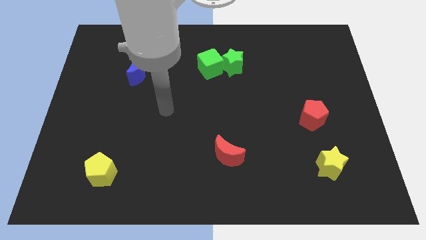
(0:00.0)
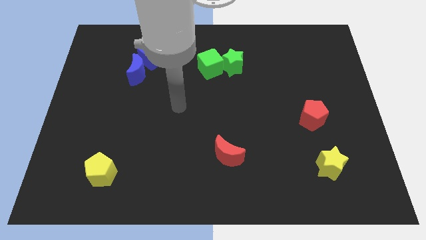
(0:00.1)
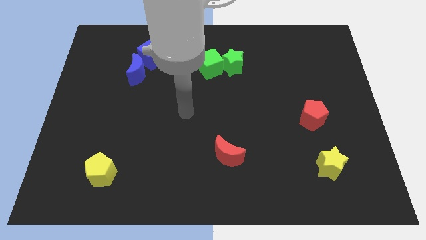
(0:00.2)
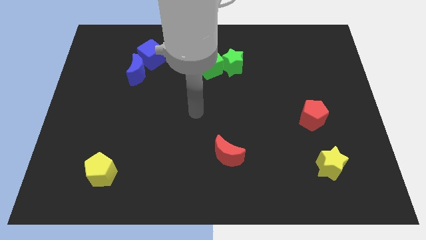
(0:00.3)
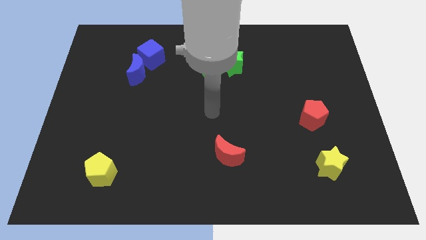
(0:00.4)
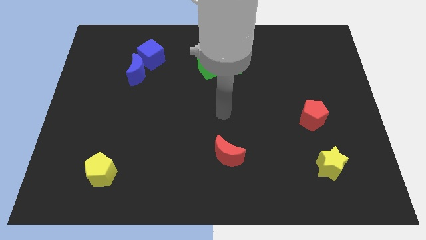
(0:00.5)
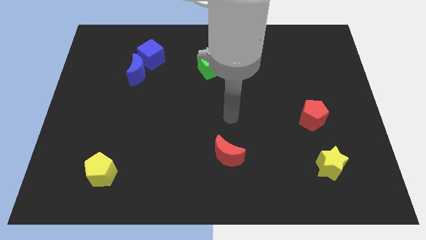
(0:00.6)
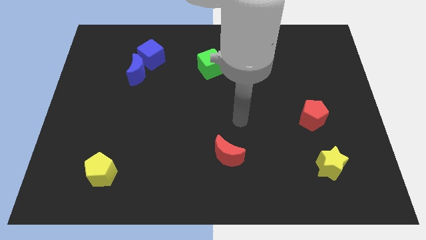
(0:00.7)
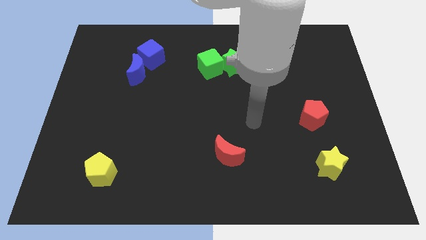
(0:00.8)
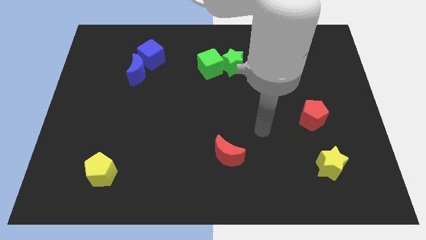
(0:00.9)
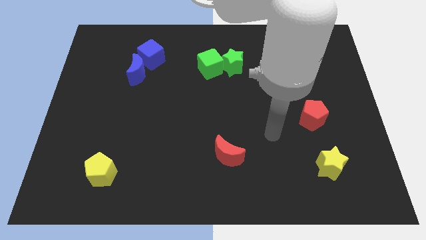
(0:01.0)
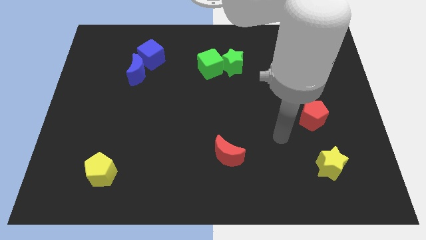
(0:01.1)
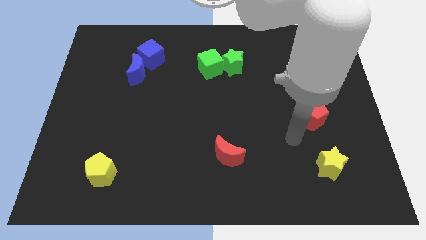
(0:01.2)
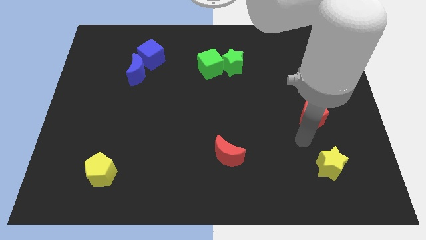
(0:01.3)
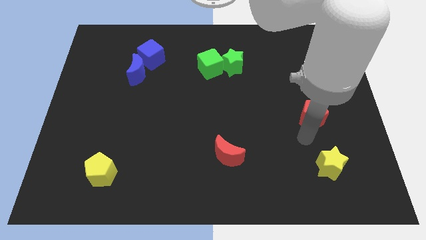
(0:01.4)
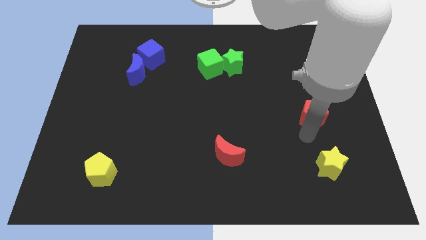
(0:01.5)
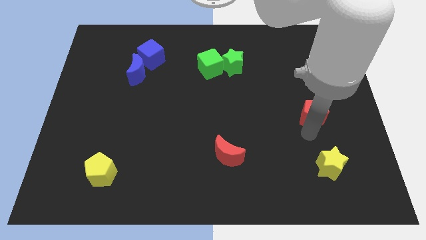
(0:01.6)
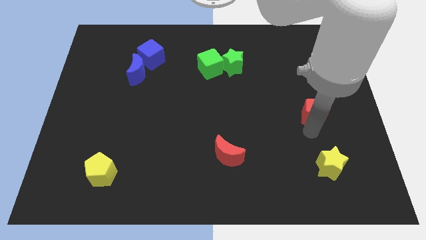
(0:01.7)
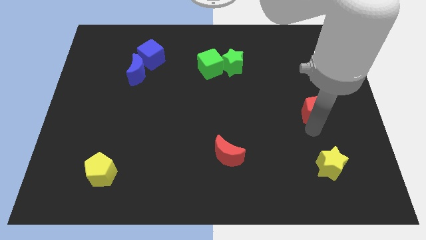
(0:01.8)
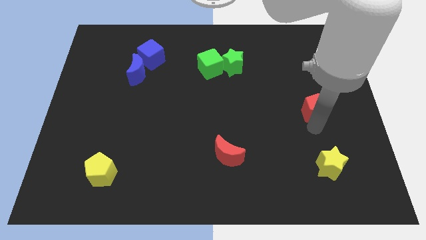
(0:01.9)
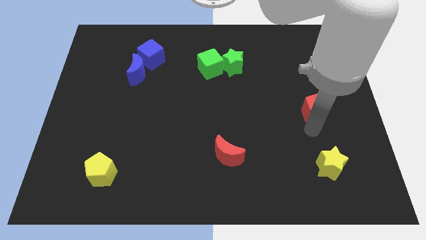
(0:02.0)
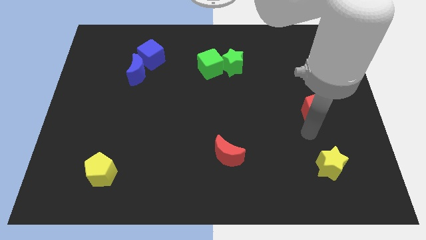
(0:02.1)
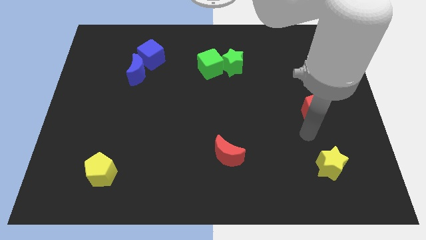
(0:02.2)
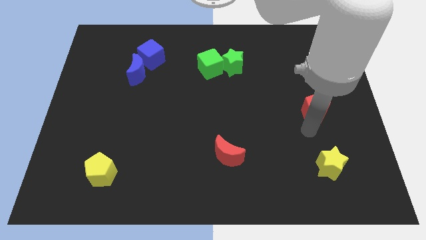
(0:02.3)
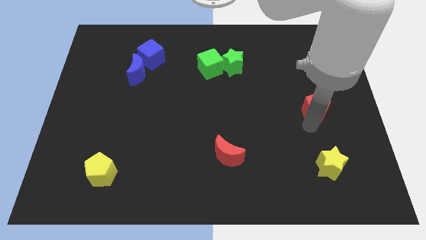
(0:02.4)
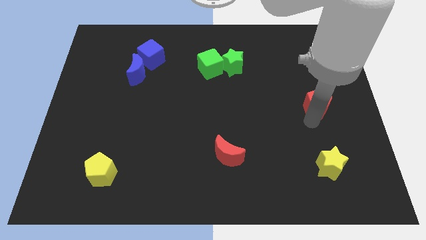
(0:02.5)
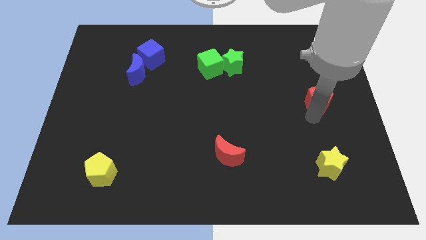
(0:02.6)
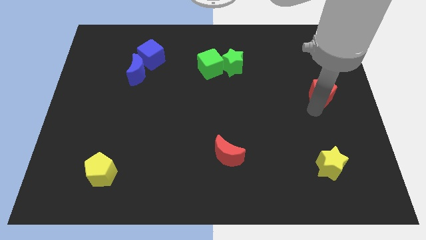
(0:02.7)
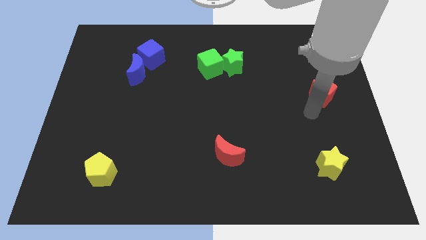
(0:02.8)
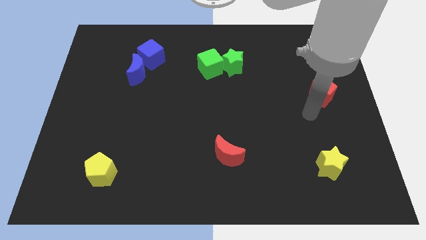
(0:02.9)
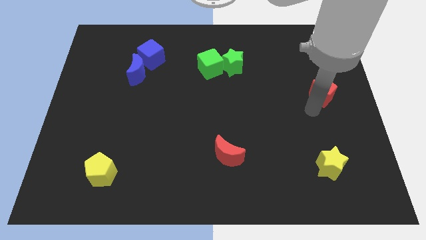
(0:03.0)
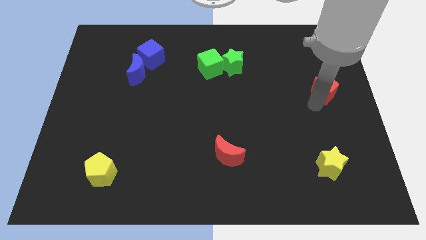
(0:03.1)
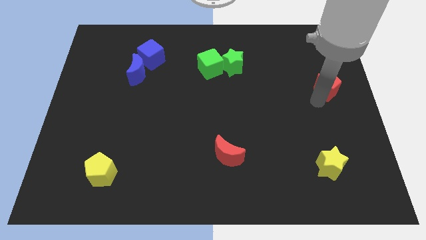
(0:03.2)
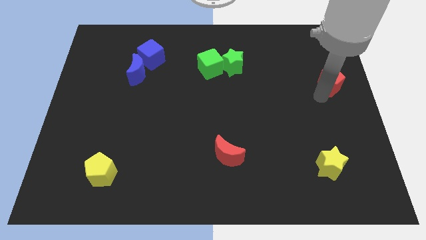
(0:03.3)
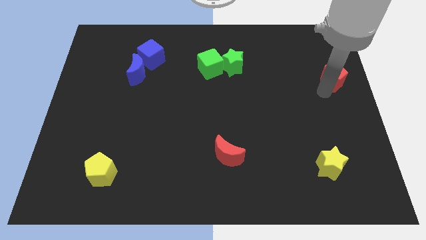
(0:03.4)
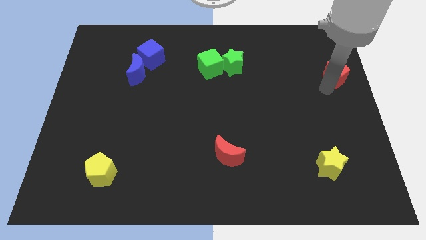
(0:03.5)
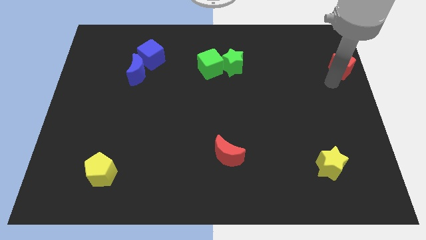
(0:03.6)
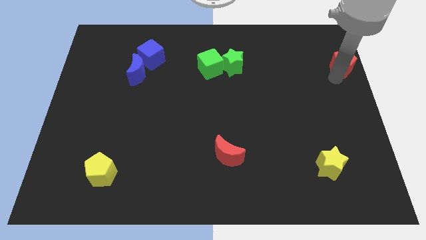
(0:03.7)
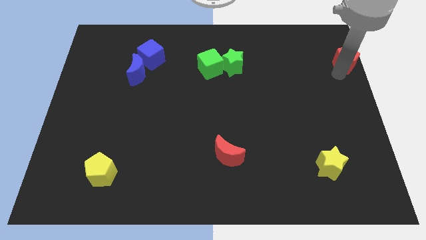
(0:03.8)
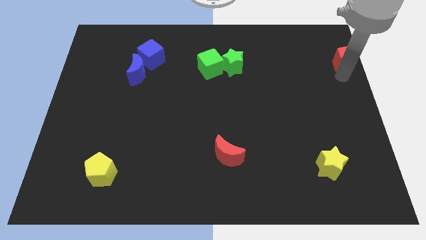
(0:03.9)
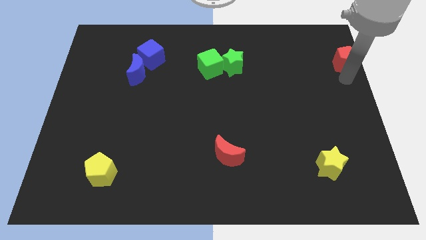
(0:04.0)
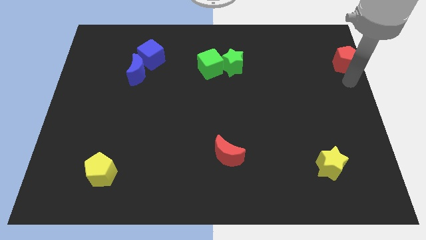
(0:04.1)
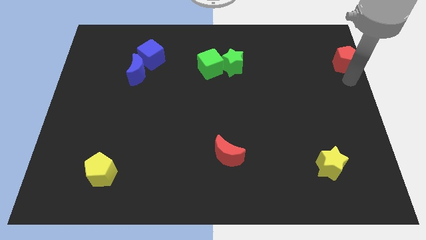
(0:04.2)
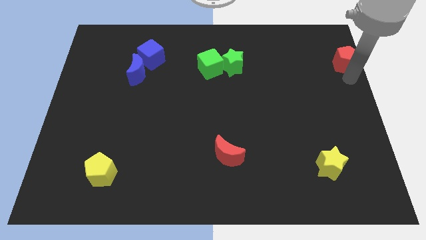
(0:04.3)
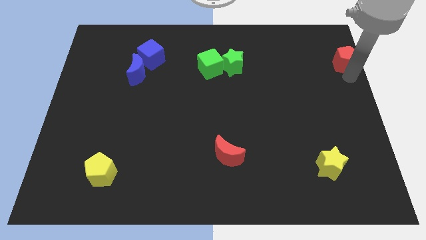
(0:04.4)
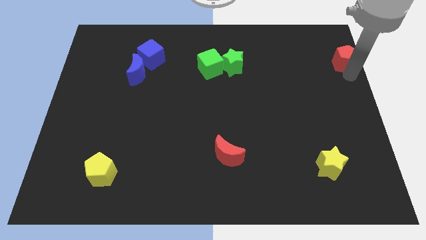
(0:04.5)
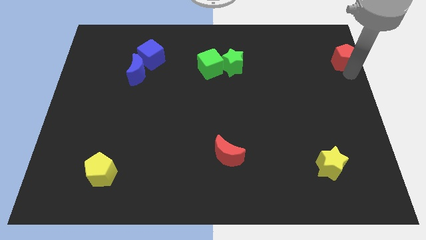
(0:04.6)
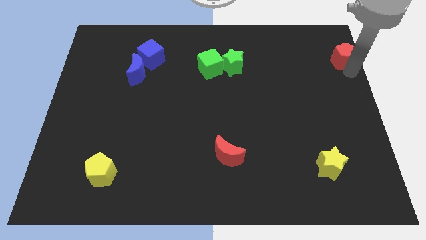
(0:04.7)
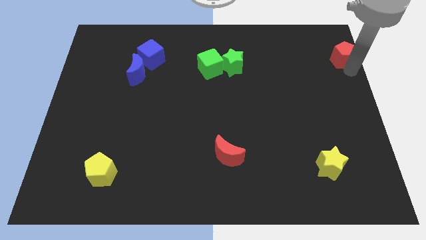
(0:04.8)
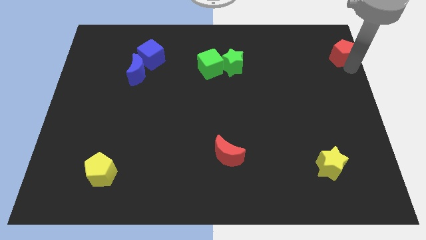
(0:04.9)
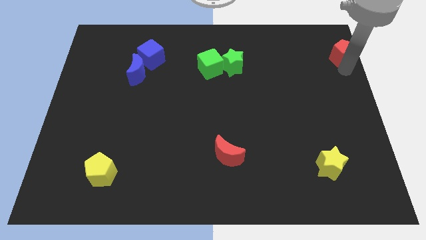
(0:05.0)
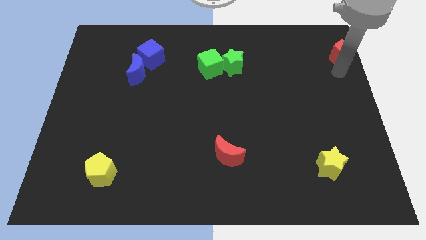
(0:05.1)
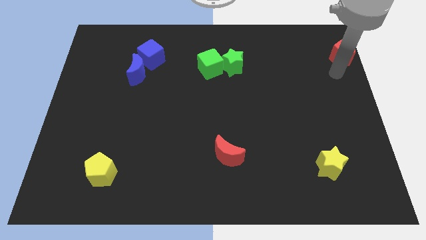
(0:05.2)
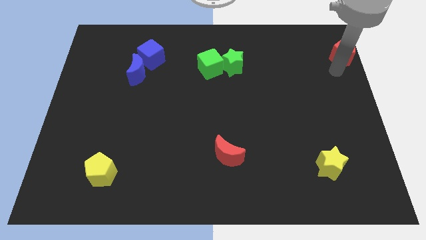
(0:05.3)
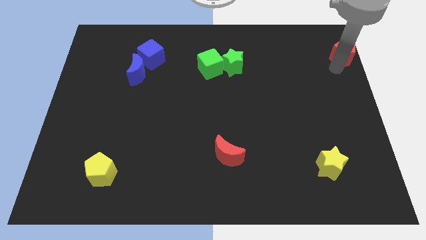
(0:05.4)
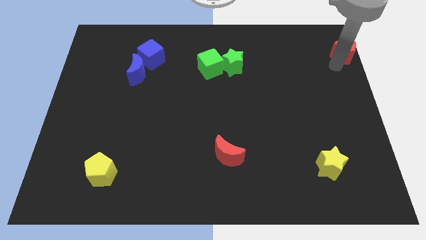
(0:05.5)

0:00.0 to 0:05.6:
put the red pentagon to the top right

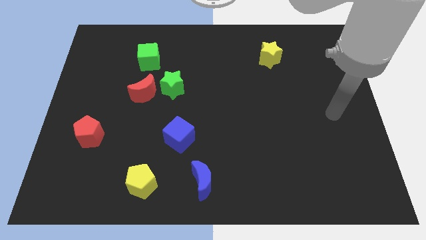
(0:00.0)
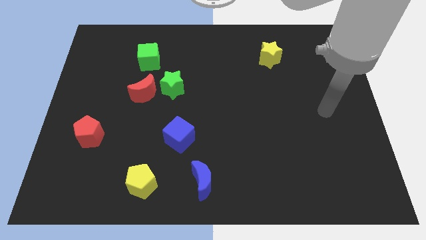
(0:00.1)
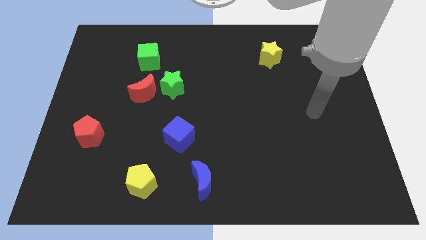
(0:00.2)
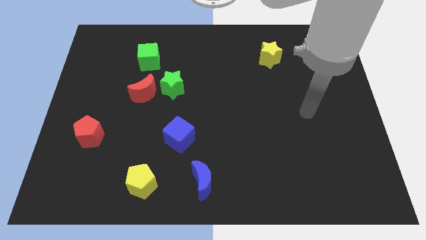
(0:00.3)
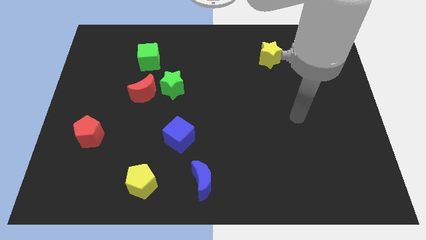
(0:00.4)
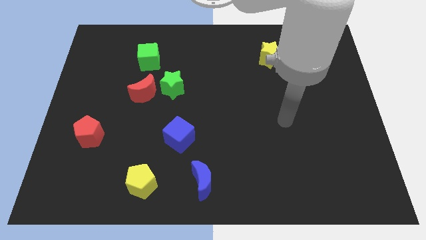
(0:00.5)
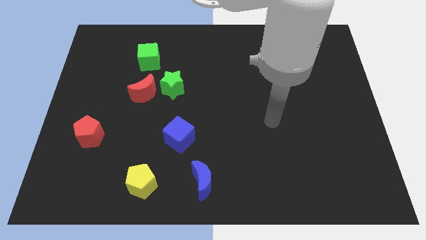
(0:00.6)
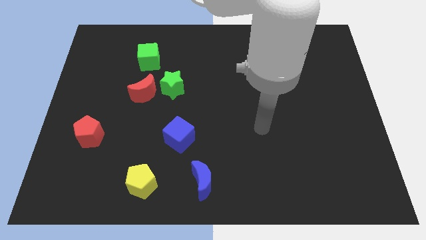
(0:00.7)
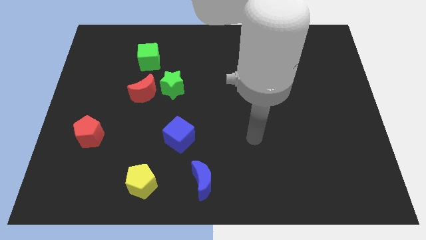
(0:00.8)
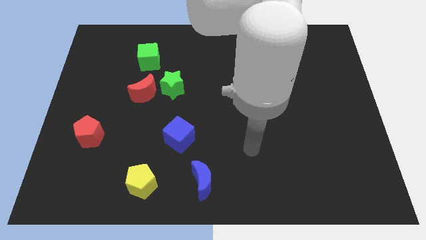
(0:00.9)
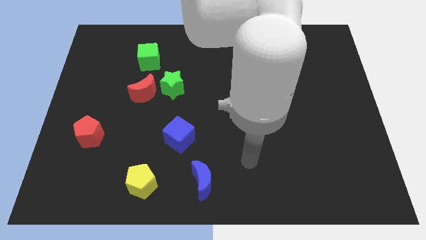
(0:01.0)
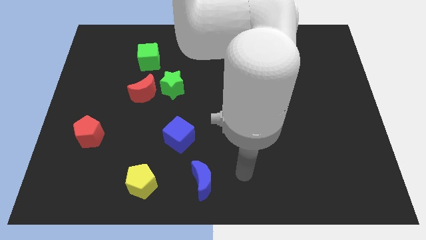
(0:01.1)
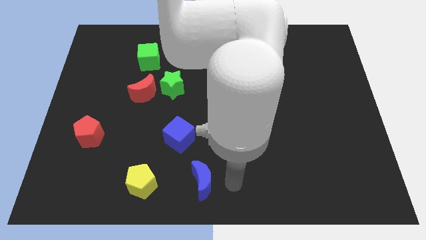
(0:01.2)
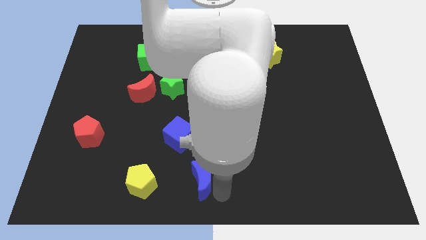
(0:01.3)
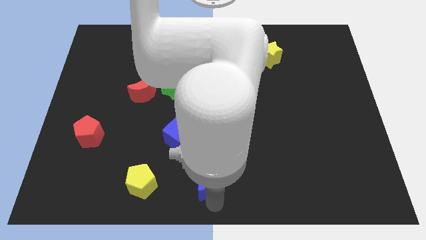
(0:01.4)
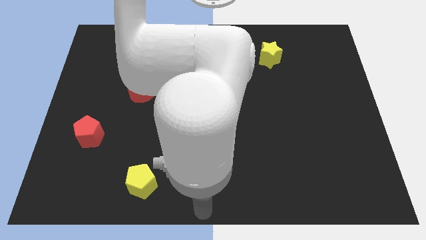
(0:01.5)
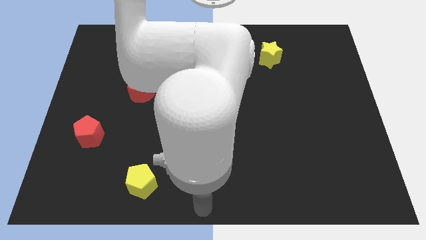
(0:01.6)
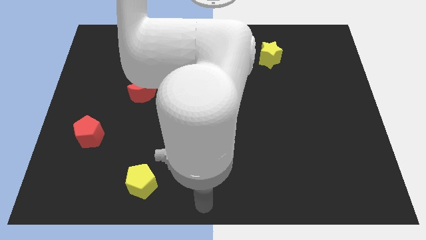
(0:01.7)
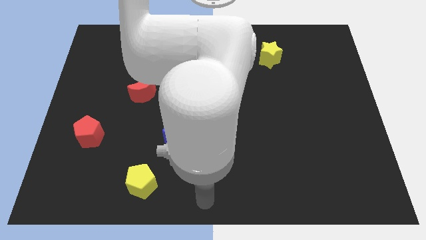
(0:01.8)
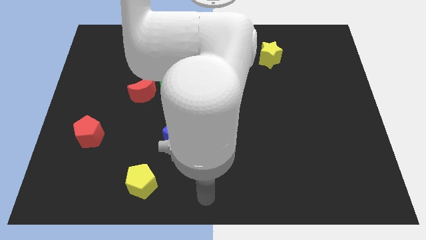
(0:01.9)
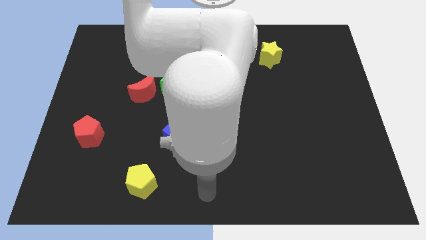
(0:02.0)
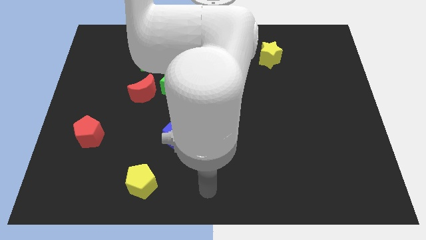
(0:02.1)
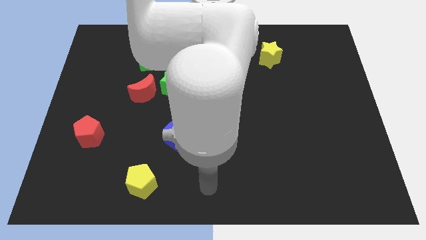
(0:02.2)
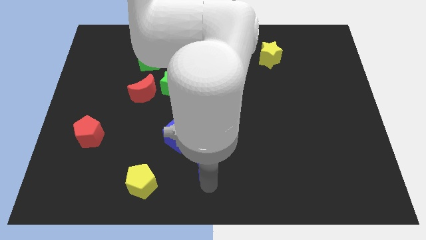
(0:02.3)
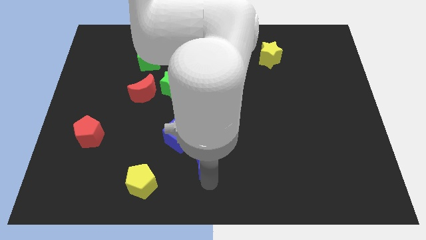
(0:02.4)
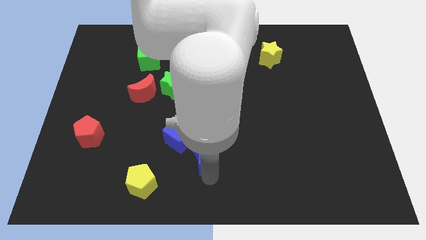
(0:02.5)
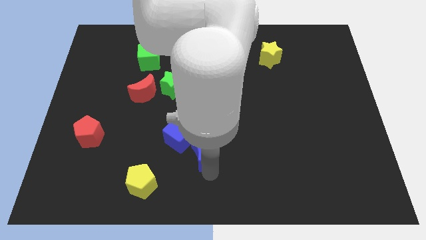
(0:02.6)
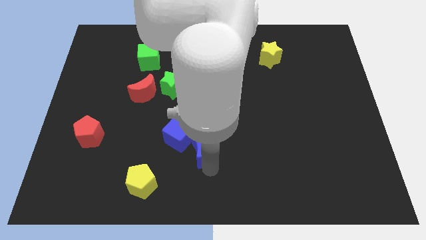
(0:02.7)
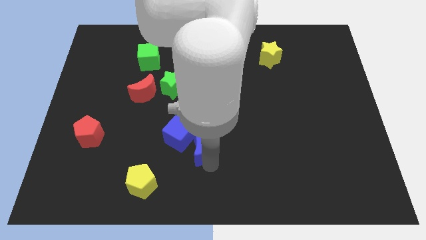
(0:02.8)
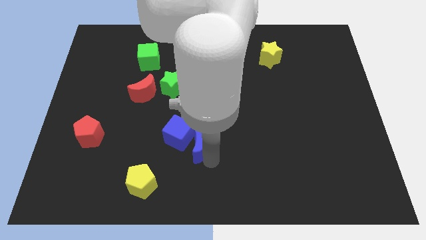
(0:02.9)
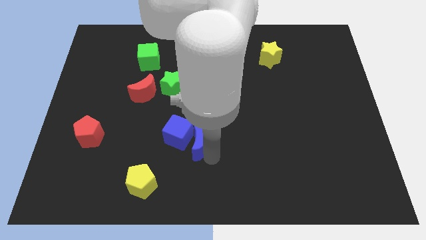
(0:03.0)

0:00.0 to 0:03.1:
push the blue moon to the center
